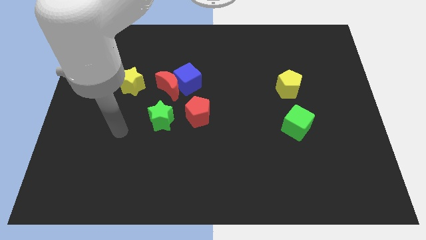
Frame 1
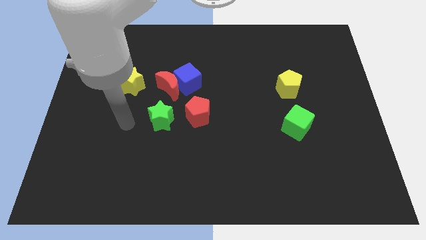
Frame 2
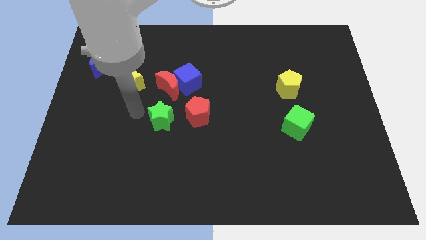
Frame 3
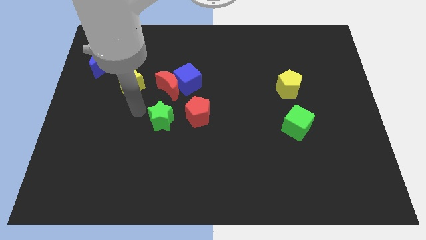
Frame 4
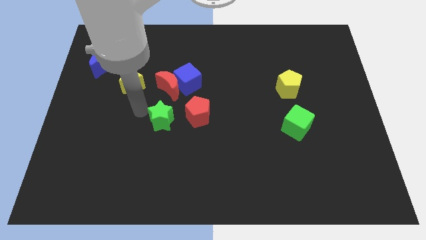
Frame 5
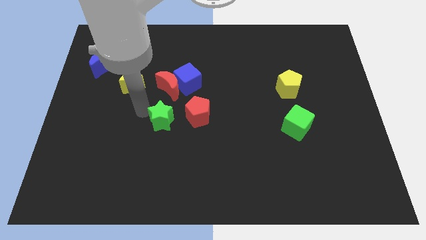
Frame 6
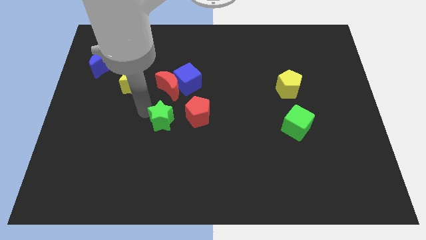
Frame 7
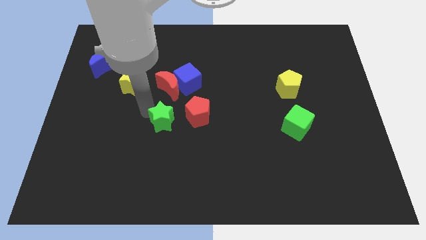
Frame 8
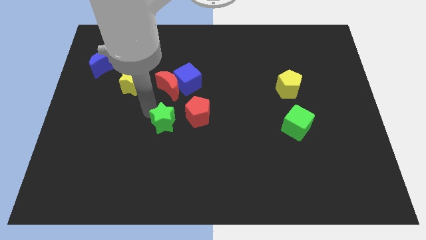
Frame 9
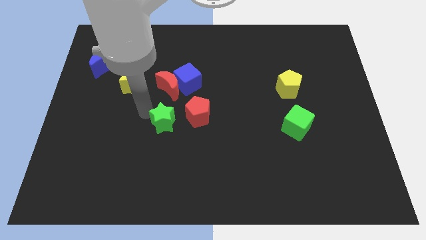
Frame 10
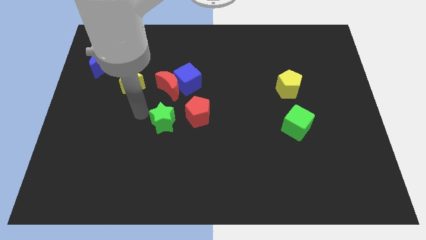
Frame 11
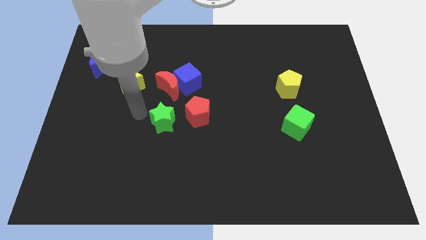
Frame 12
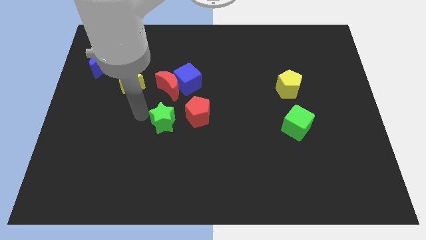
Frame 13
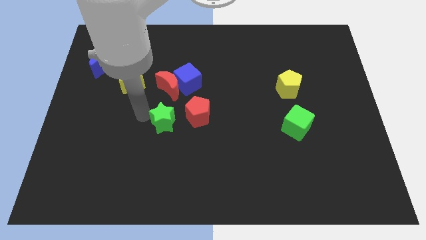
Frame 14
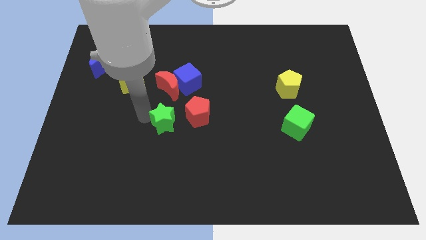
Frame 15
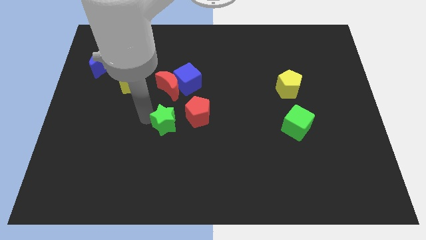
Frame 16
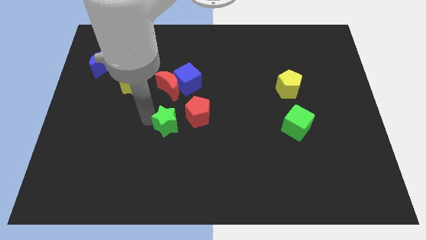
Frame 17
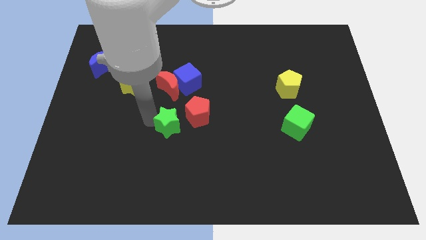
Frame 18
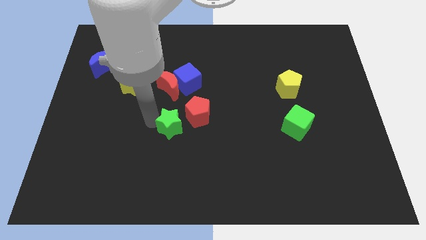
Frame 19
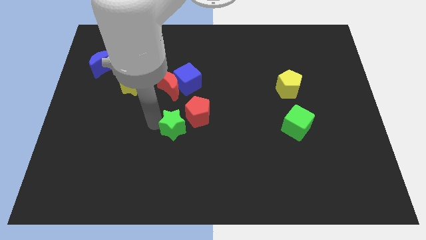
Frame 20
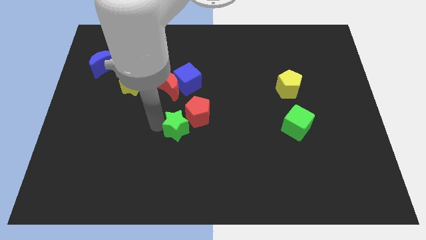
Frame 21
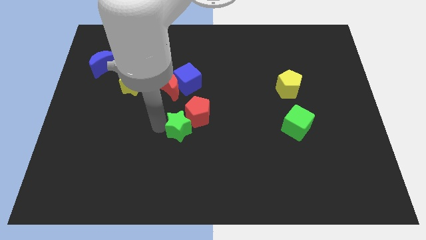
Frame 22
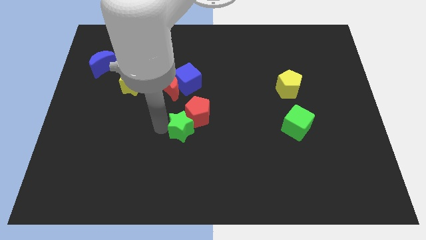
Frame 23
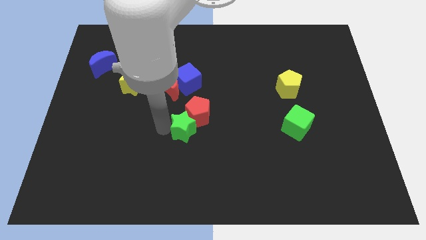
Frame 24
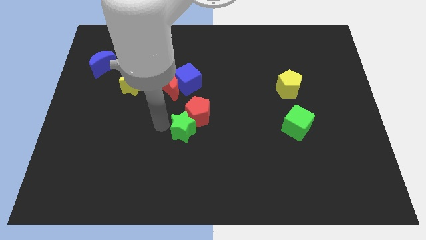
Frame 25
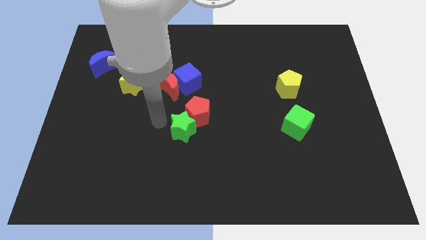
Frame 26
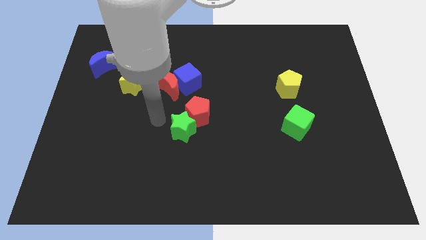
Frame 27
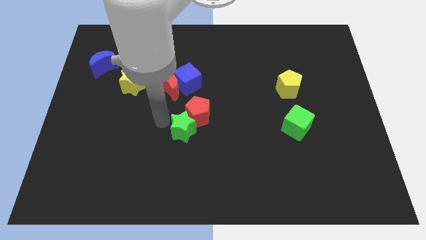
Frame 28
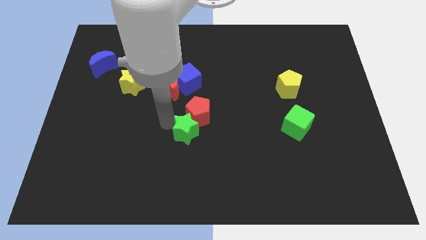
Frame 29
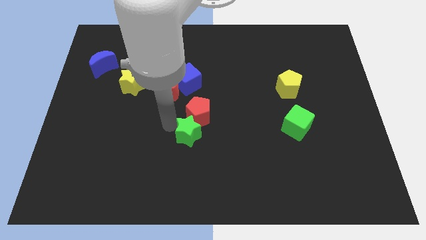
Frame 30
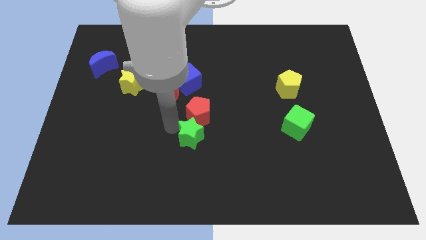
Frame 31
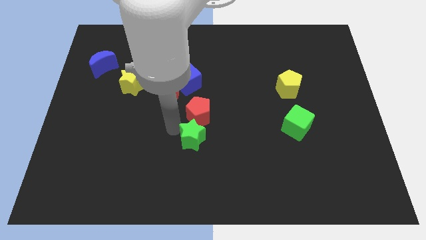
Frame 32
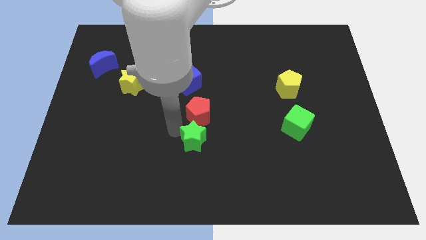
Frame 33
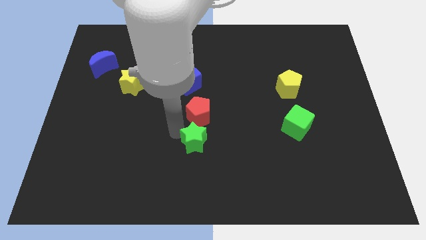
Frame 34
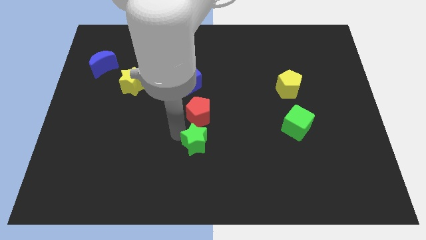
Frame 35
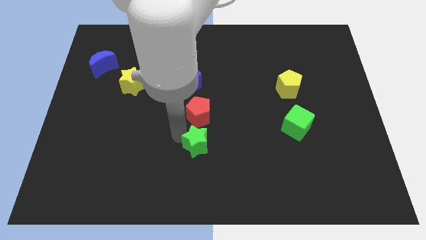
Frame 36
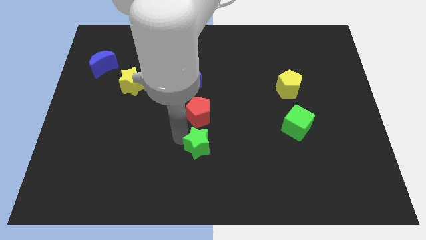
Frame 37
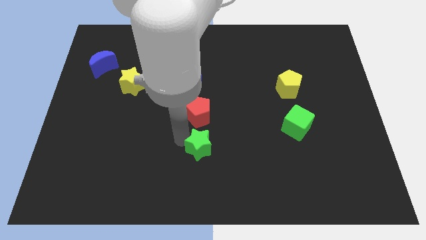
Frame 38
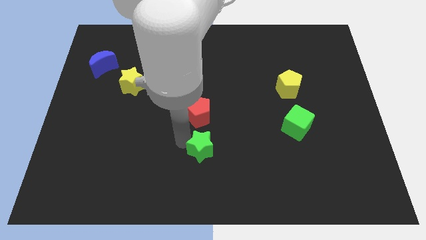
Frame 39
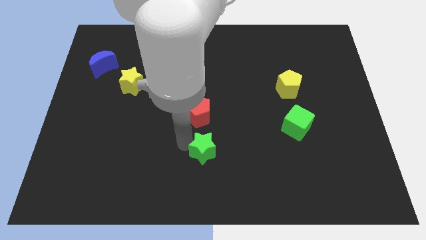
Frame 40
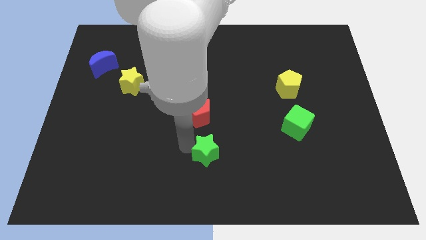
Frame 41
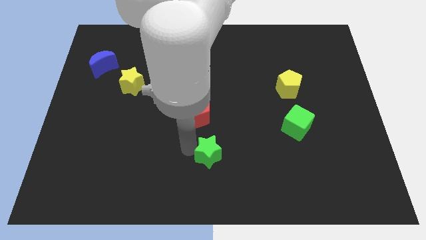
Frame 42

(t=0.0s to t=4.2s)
slide the green star to the right slightly

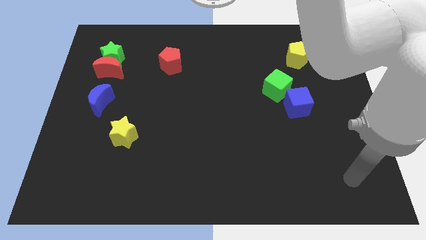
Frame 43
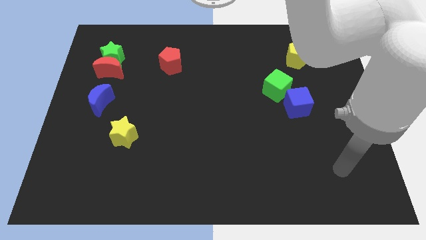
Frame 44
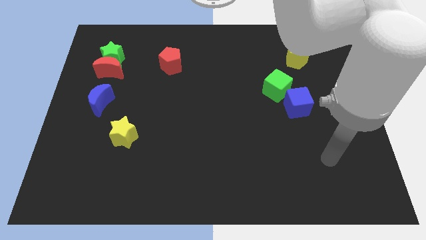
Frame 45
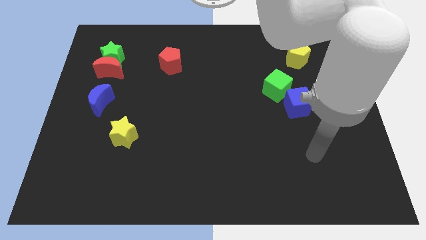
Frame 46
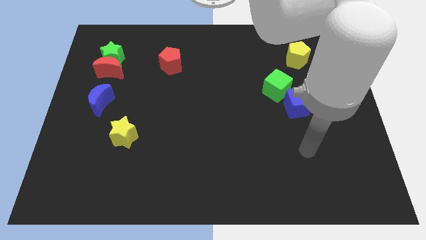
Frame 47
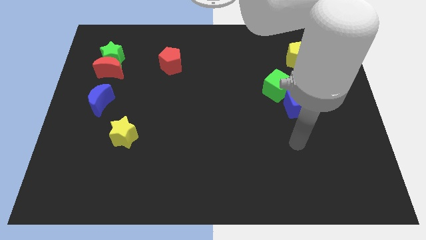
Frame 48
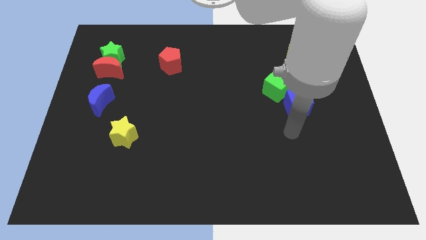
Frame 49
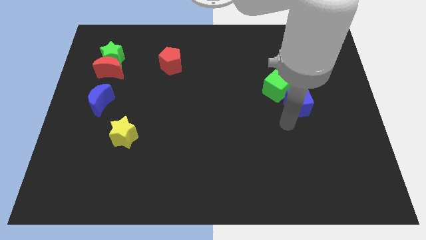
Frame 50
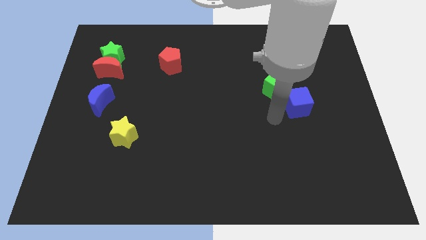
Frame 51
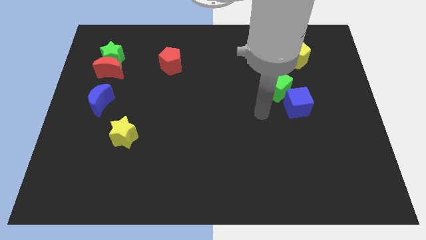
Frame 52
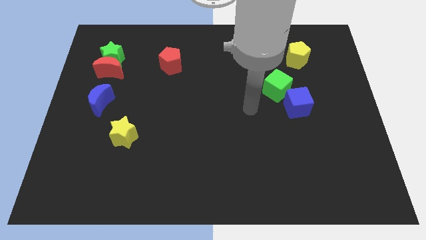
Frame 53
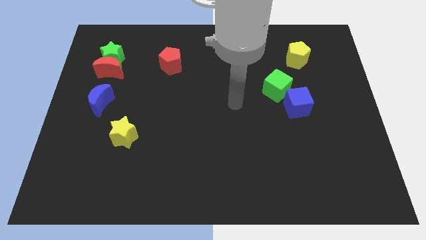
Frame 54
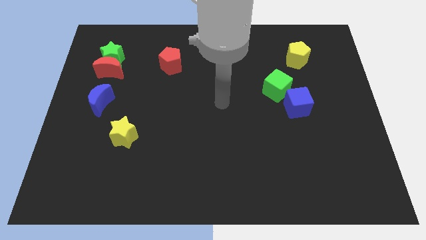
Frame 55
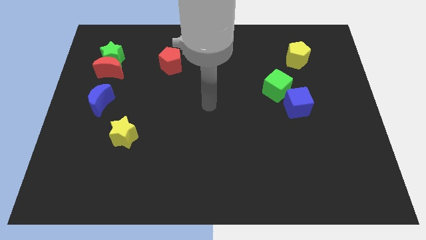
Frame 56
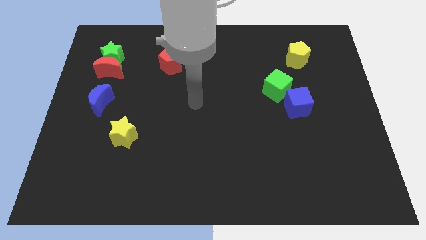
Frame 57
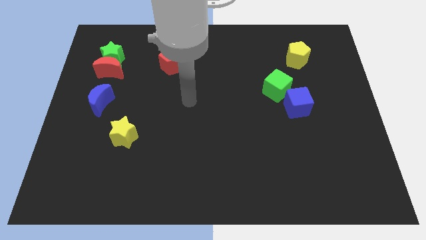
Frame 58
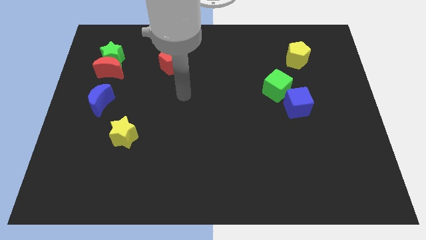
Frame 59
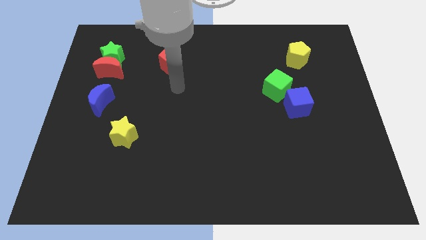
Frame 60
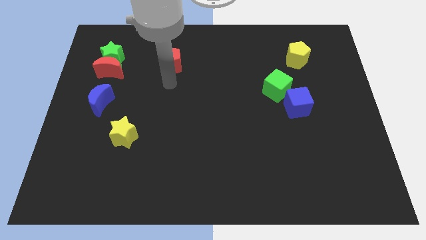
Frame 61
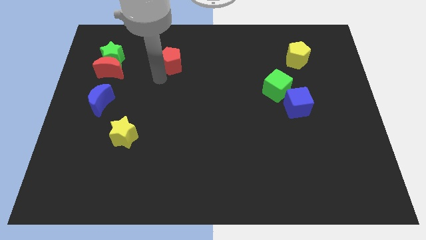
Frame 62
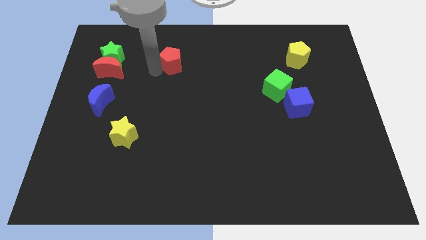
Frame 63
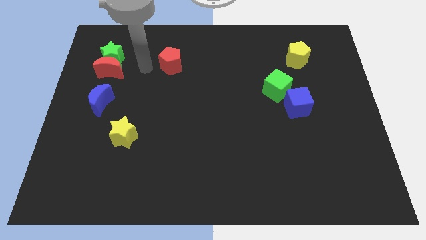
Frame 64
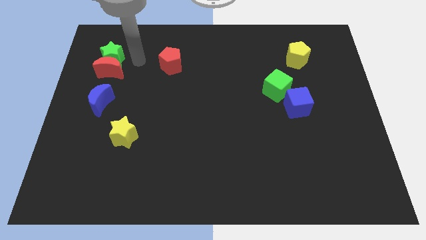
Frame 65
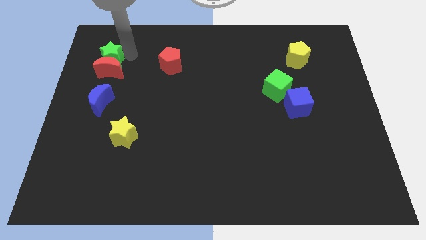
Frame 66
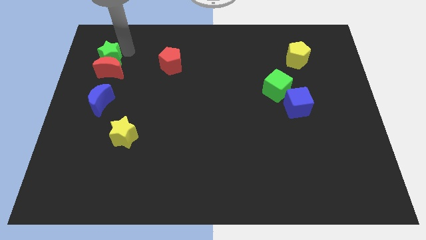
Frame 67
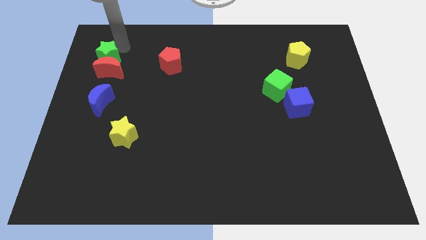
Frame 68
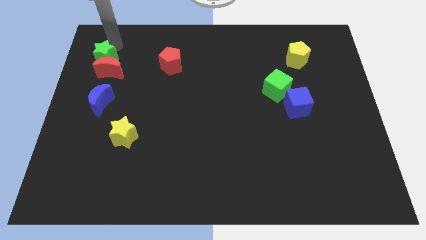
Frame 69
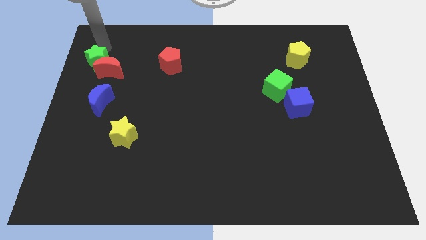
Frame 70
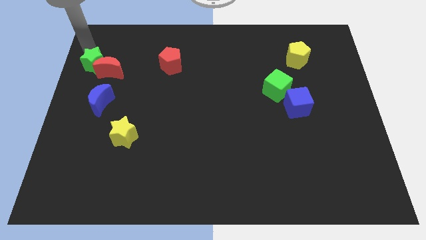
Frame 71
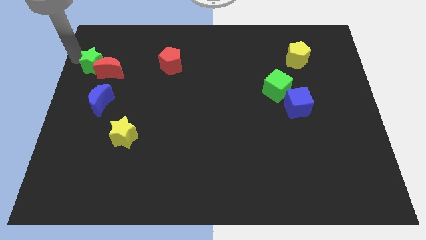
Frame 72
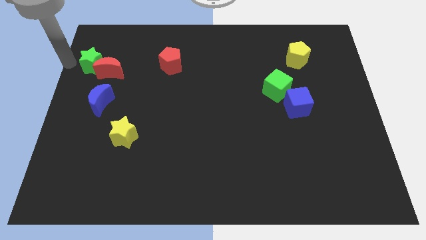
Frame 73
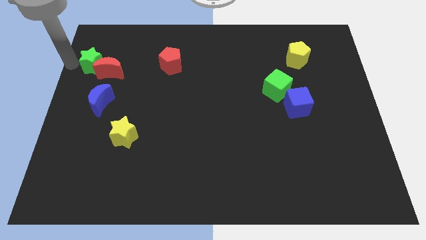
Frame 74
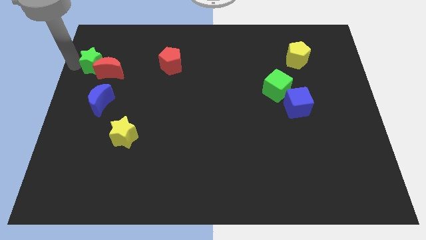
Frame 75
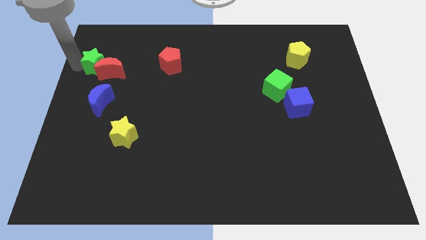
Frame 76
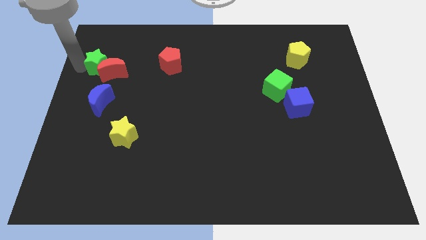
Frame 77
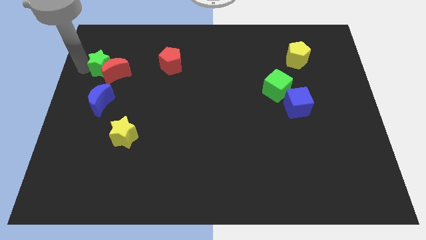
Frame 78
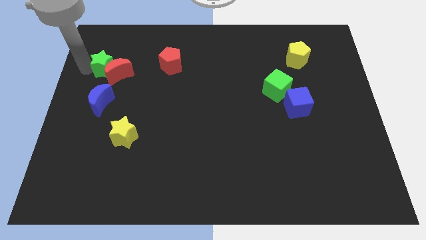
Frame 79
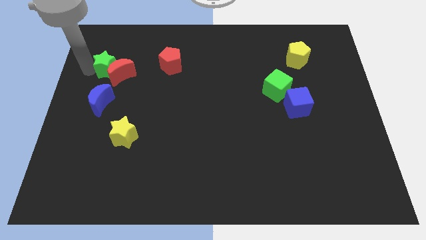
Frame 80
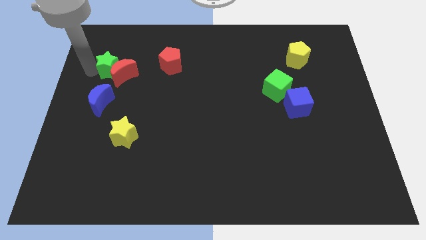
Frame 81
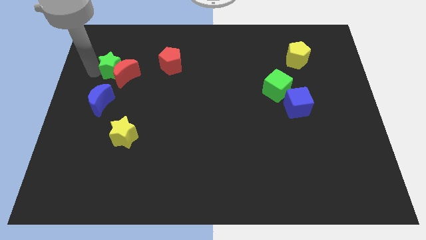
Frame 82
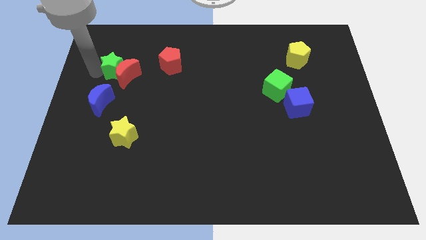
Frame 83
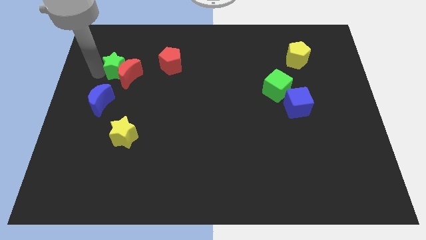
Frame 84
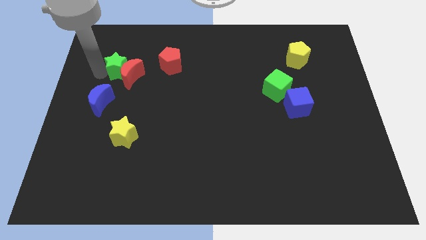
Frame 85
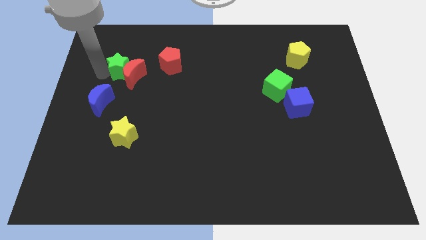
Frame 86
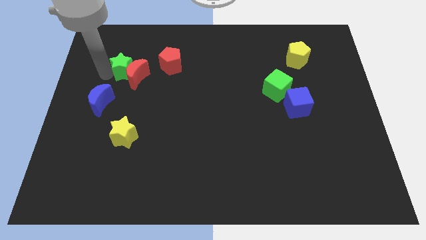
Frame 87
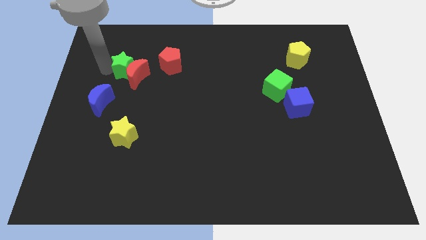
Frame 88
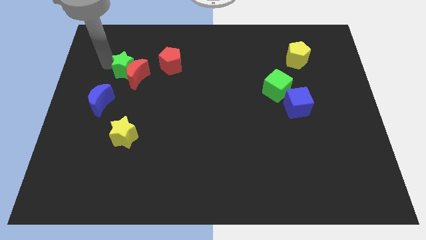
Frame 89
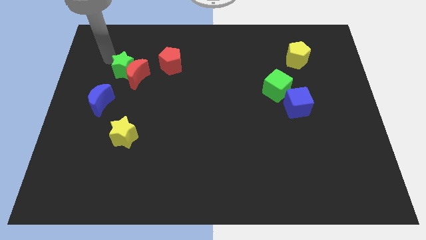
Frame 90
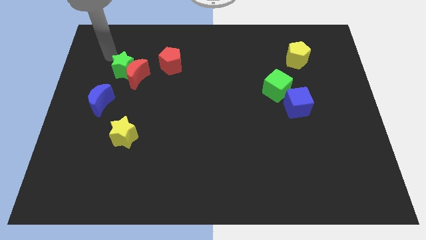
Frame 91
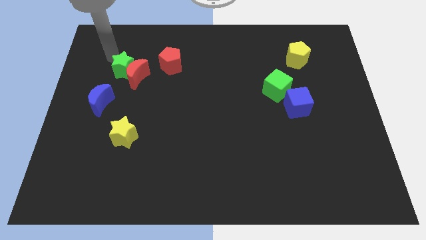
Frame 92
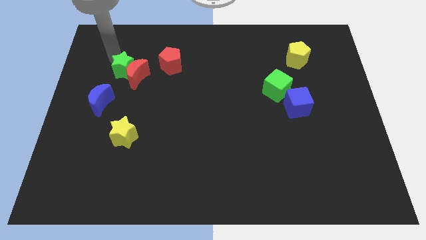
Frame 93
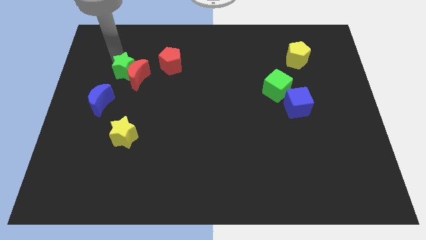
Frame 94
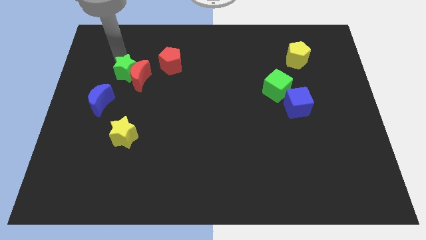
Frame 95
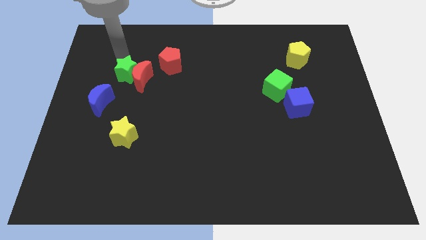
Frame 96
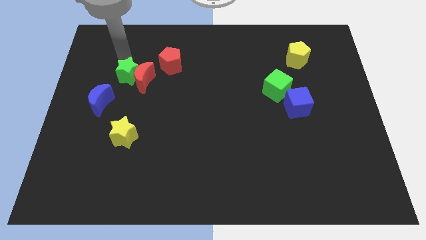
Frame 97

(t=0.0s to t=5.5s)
slightly move the green star downwards and right diagonally
